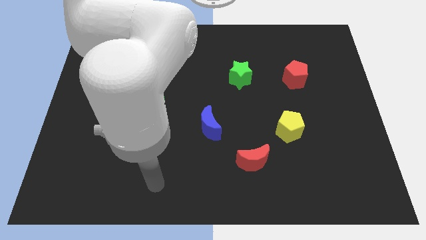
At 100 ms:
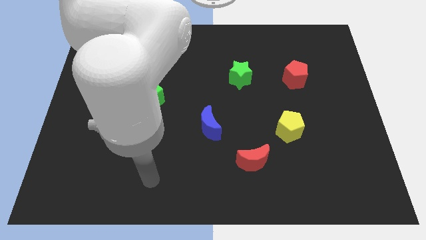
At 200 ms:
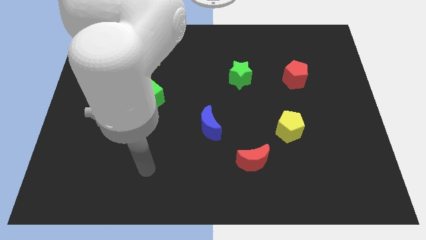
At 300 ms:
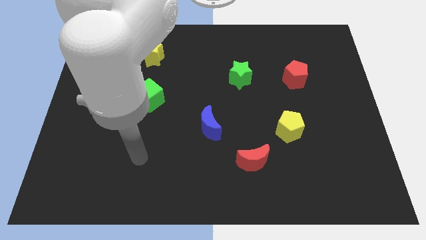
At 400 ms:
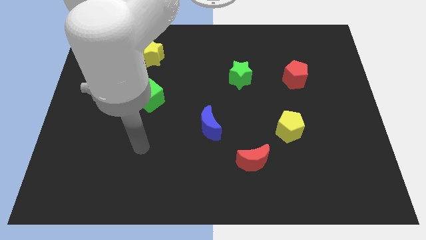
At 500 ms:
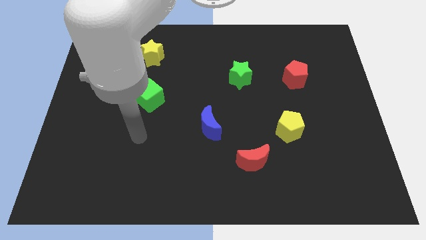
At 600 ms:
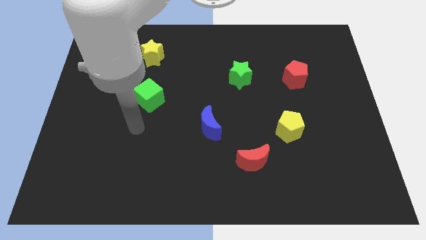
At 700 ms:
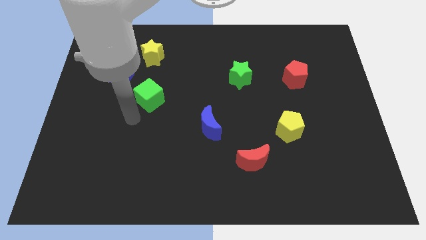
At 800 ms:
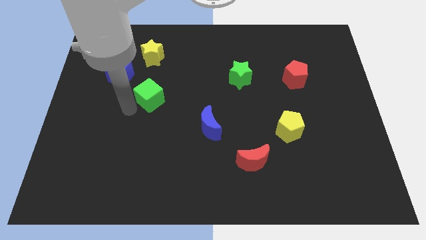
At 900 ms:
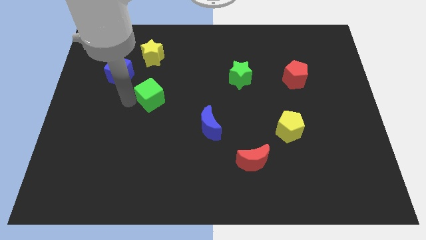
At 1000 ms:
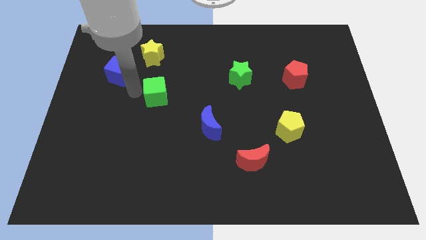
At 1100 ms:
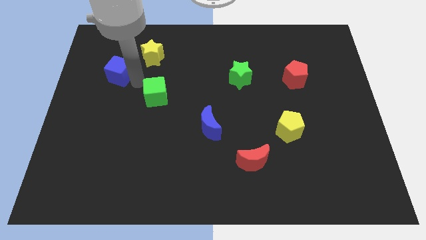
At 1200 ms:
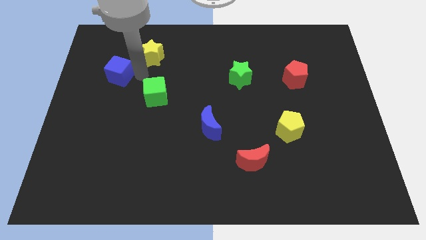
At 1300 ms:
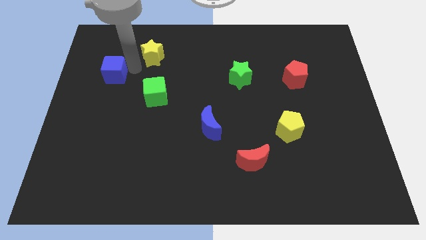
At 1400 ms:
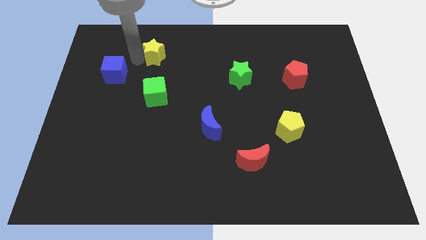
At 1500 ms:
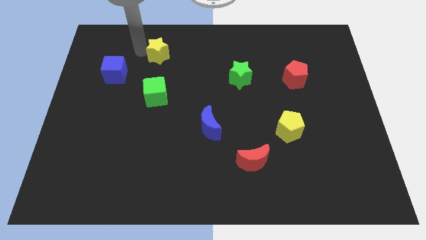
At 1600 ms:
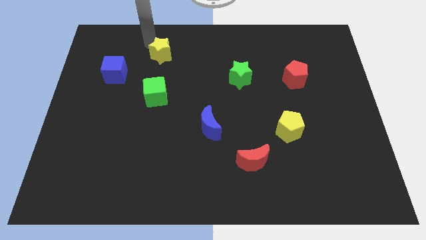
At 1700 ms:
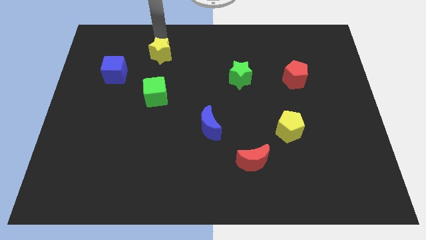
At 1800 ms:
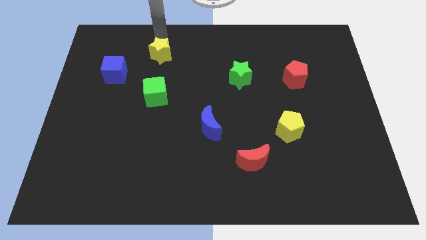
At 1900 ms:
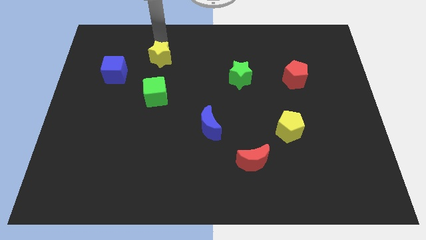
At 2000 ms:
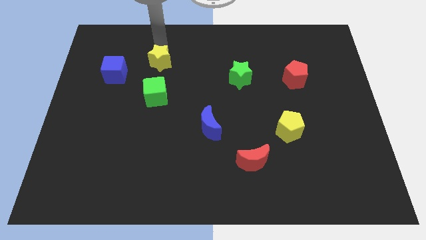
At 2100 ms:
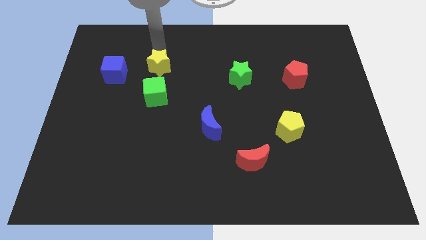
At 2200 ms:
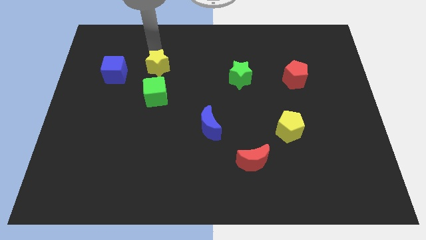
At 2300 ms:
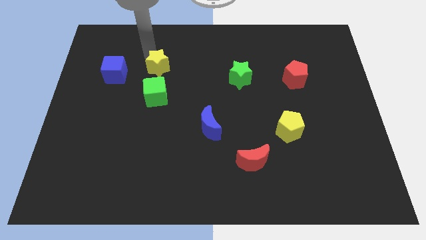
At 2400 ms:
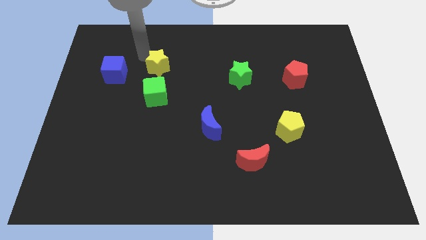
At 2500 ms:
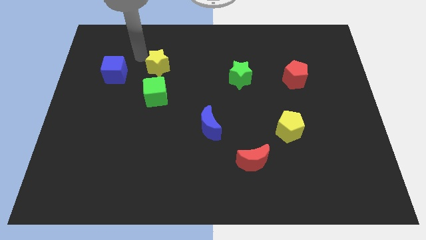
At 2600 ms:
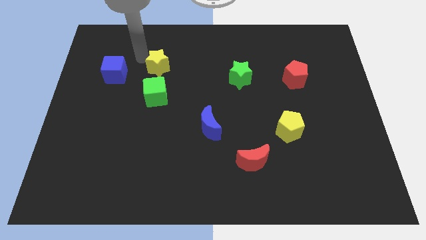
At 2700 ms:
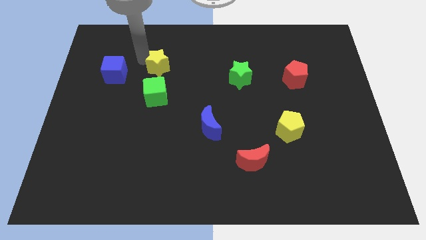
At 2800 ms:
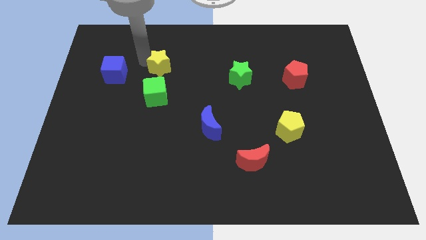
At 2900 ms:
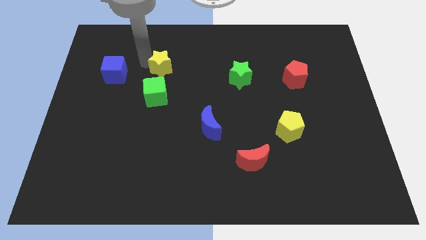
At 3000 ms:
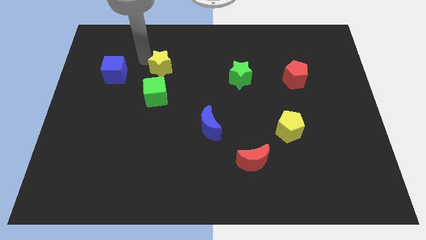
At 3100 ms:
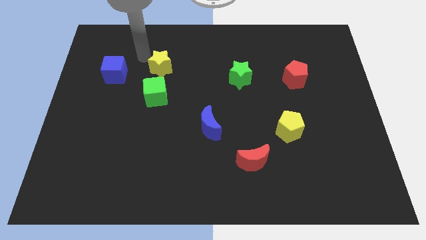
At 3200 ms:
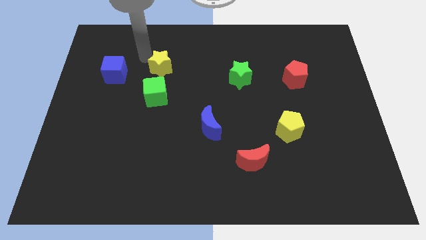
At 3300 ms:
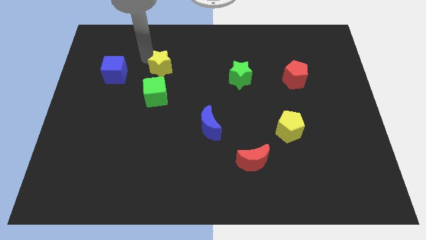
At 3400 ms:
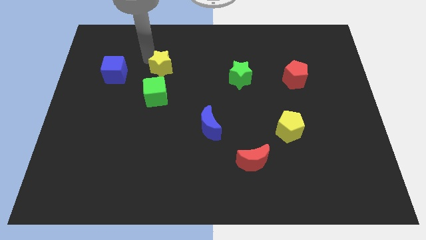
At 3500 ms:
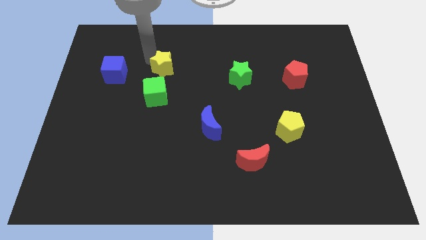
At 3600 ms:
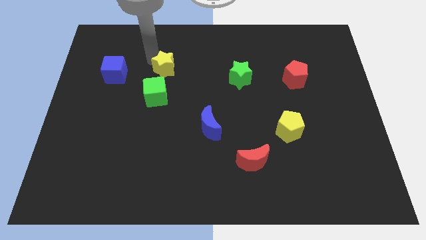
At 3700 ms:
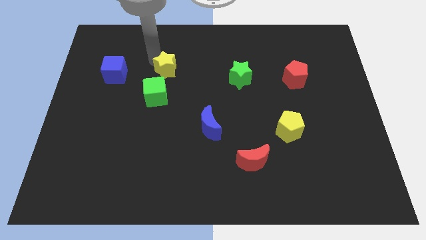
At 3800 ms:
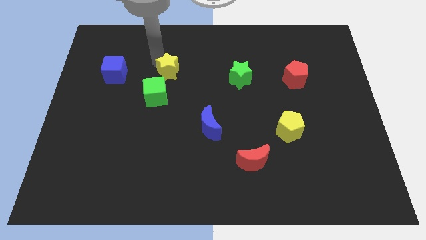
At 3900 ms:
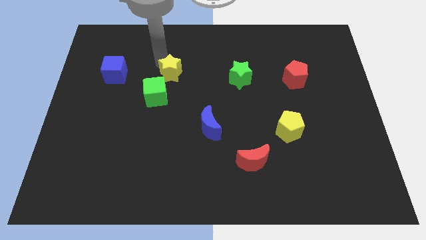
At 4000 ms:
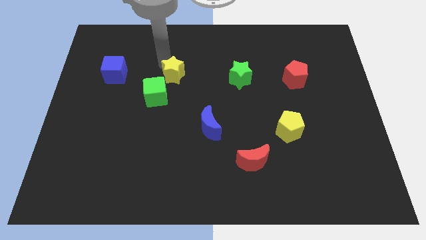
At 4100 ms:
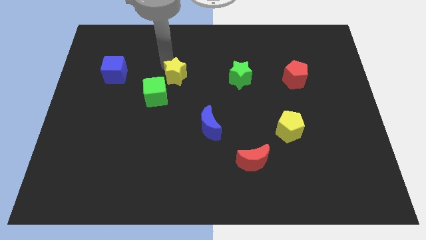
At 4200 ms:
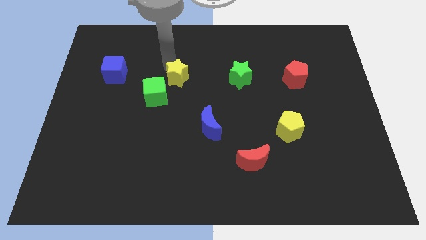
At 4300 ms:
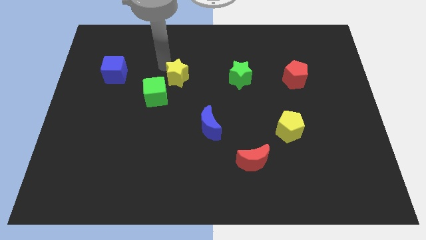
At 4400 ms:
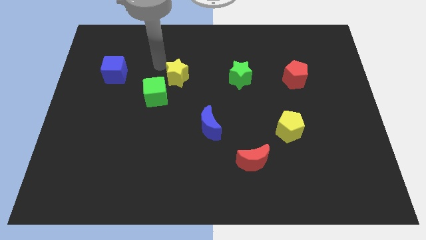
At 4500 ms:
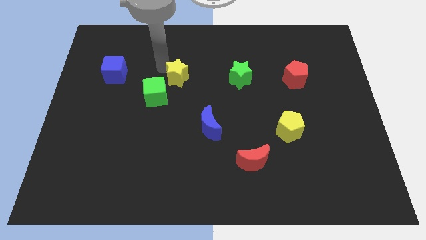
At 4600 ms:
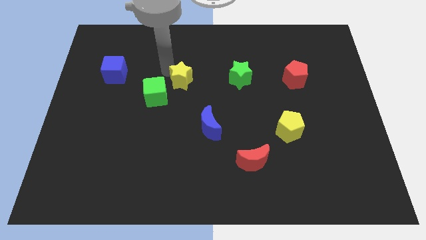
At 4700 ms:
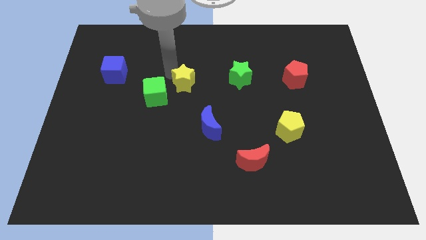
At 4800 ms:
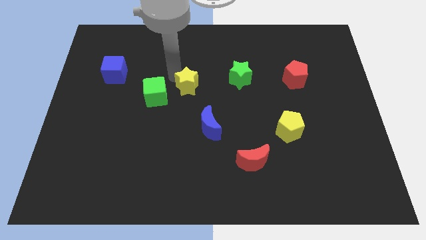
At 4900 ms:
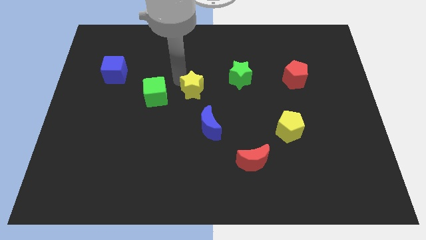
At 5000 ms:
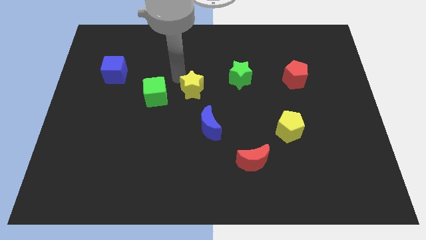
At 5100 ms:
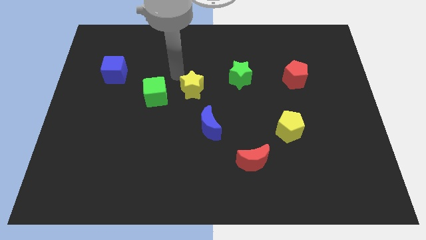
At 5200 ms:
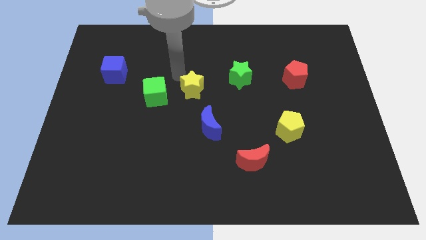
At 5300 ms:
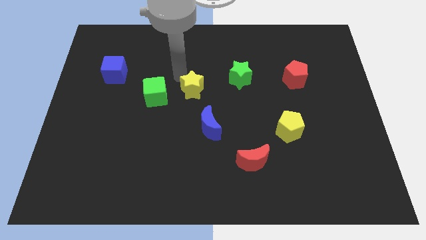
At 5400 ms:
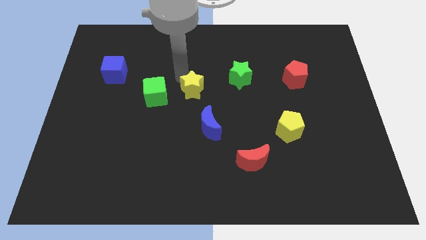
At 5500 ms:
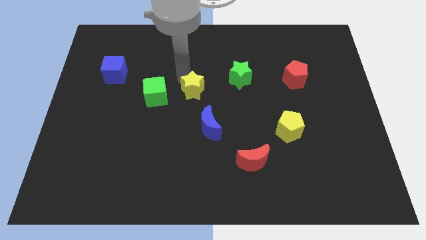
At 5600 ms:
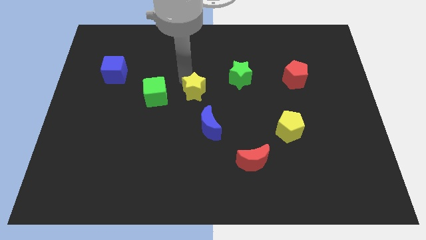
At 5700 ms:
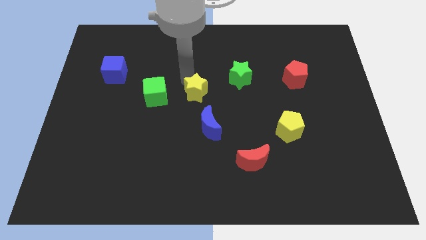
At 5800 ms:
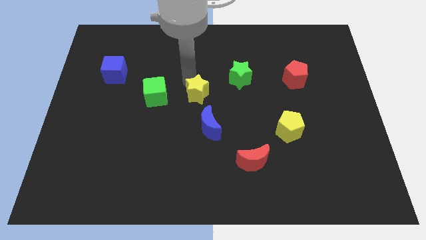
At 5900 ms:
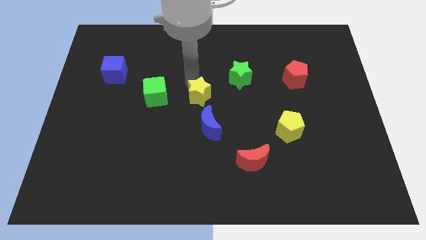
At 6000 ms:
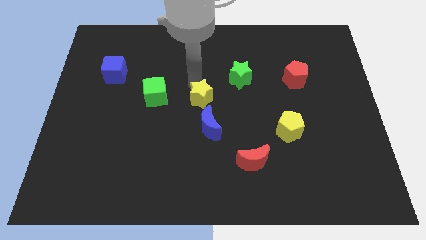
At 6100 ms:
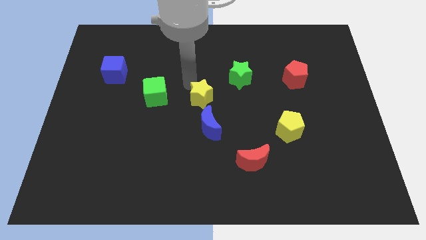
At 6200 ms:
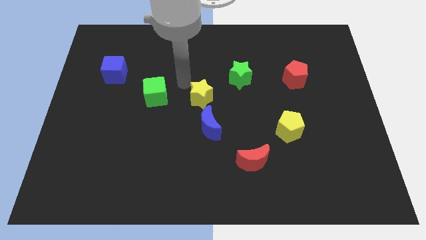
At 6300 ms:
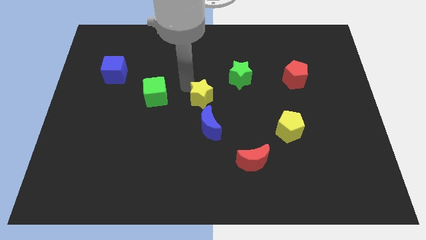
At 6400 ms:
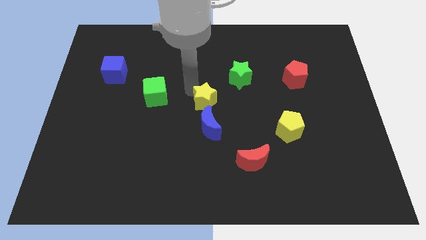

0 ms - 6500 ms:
slide the yellow star down and then right

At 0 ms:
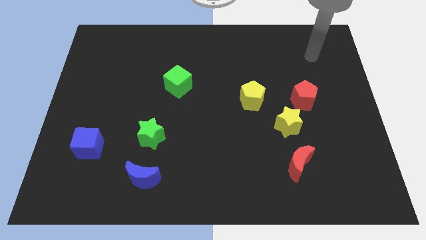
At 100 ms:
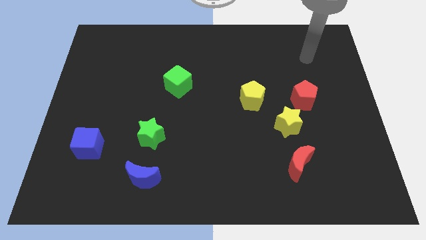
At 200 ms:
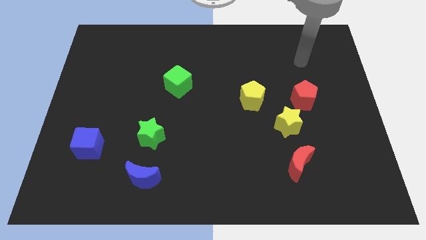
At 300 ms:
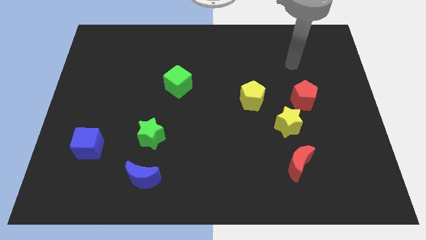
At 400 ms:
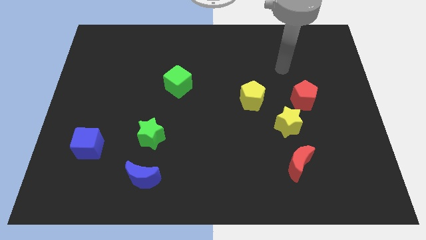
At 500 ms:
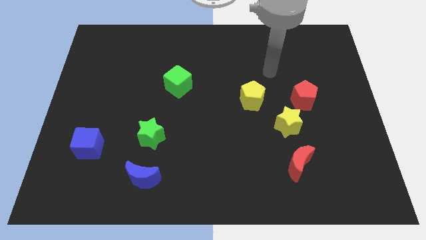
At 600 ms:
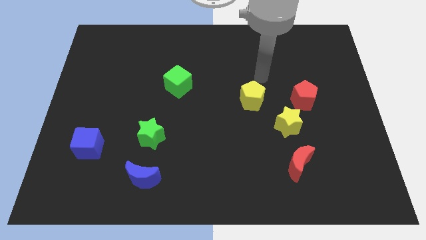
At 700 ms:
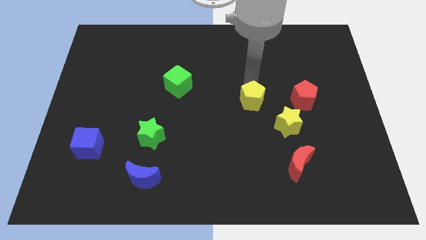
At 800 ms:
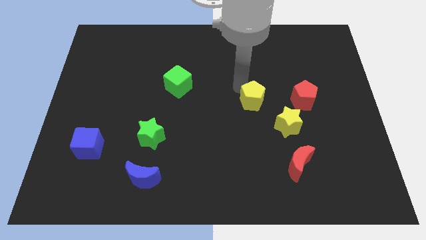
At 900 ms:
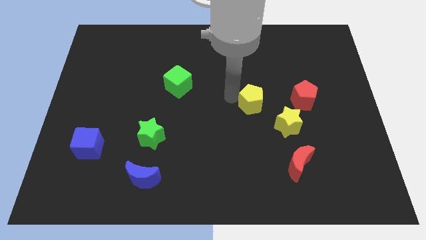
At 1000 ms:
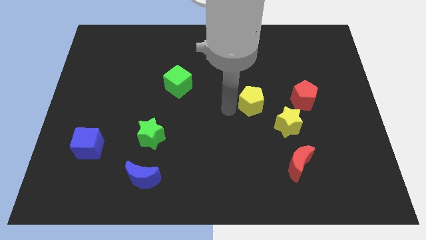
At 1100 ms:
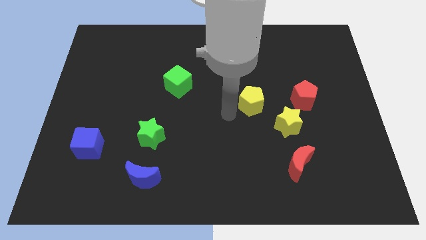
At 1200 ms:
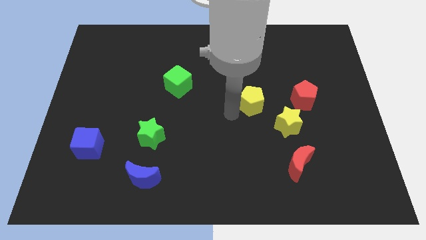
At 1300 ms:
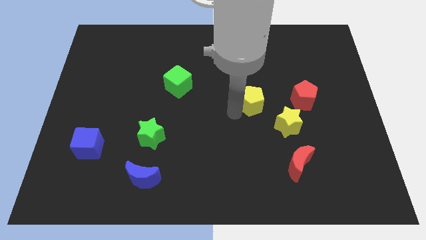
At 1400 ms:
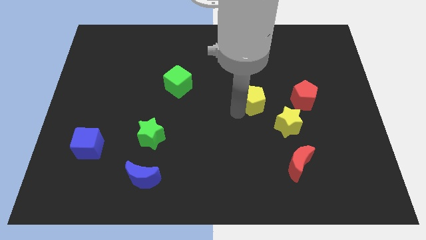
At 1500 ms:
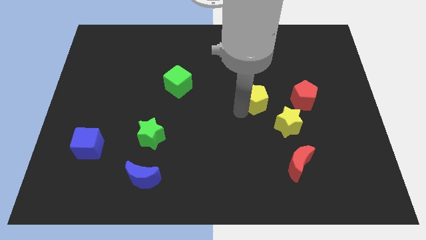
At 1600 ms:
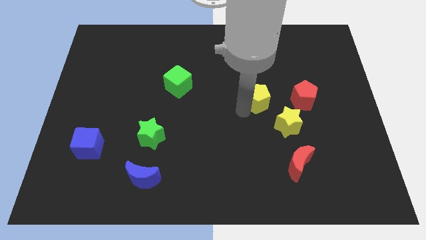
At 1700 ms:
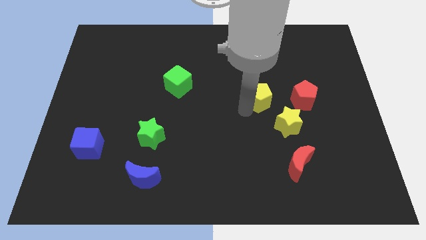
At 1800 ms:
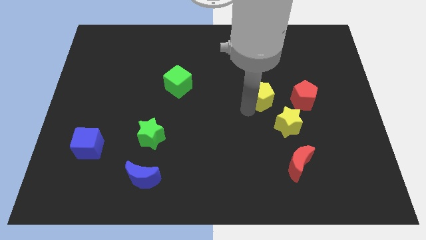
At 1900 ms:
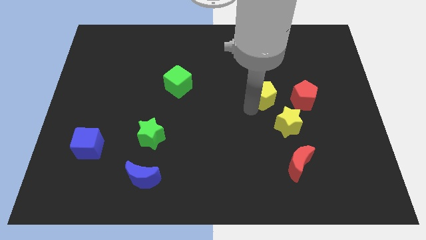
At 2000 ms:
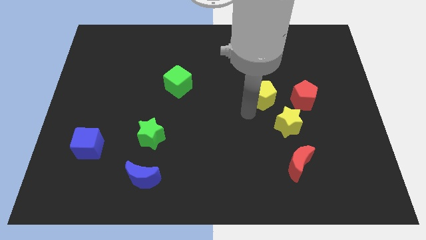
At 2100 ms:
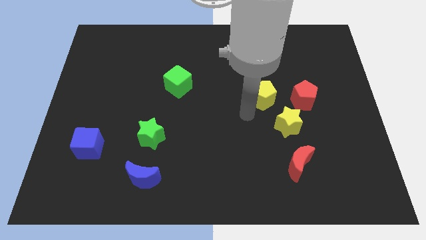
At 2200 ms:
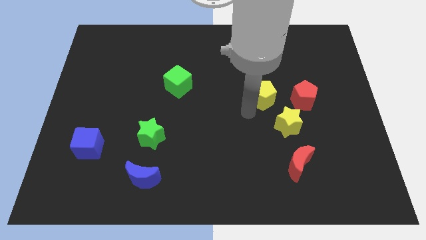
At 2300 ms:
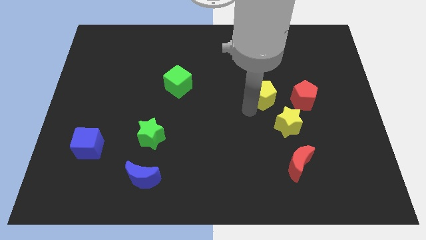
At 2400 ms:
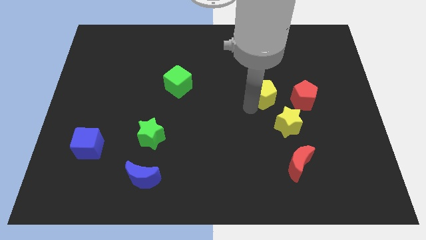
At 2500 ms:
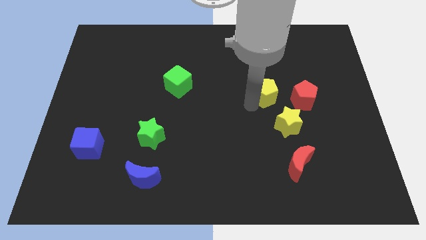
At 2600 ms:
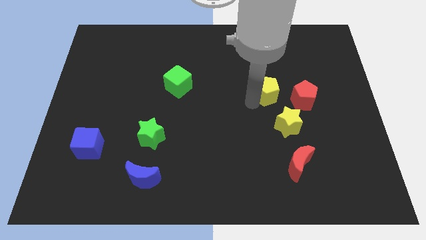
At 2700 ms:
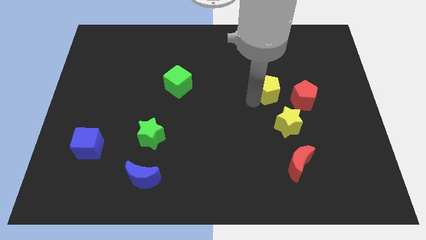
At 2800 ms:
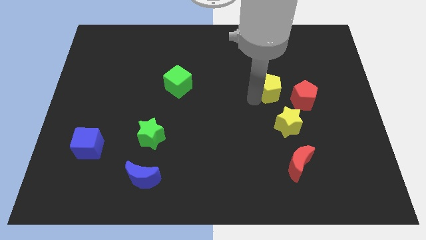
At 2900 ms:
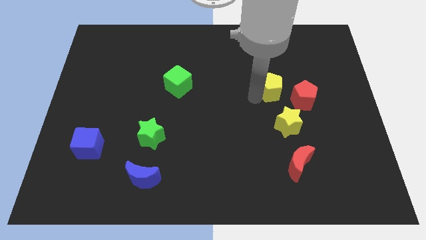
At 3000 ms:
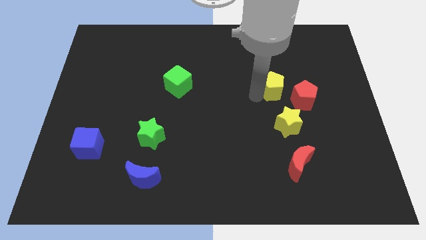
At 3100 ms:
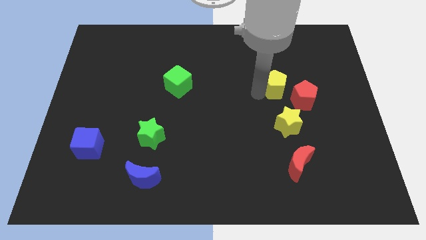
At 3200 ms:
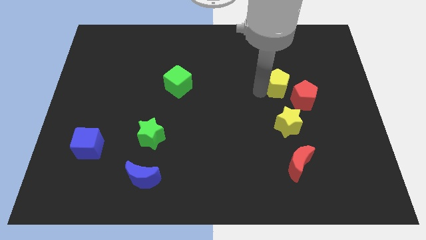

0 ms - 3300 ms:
slide the yellow pentagon up and to the right a little
